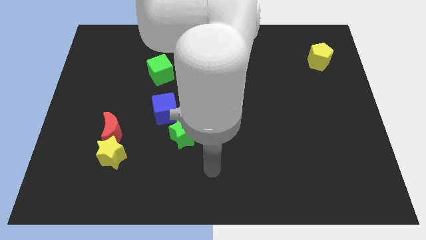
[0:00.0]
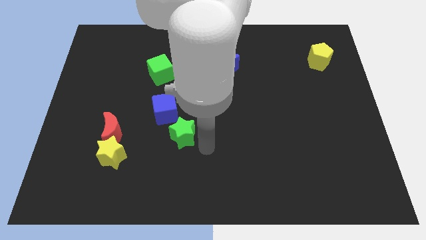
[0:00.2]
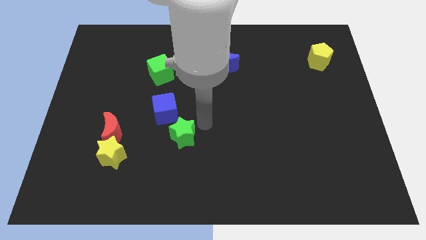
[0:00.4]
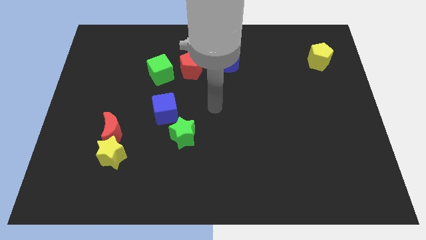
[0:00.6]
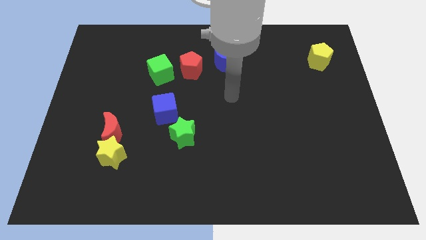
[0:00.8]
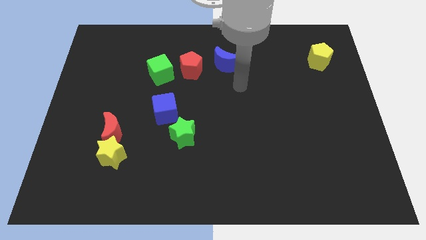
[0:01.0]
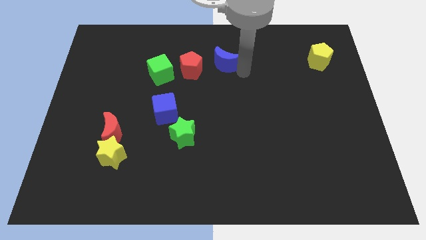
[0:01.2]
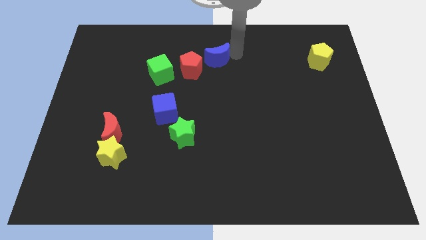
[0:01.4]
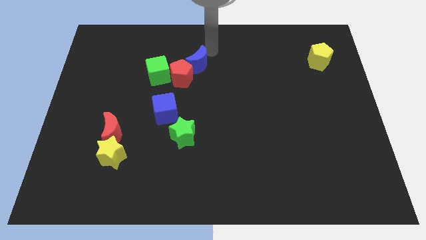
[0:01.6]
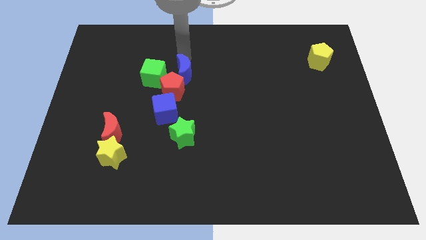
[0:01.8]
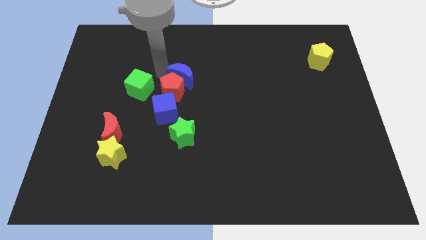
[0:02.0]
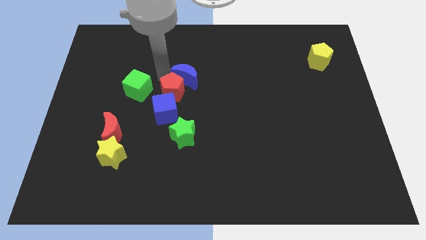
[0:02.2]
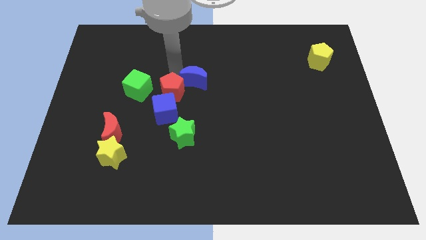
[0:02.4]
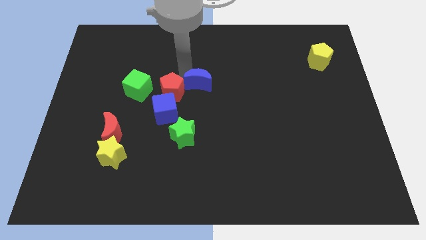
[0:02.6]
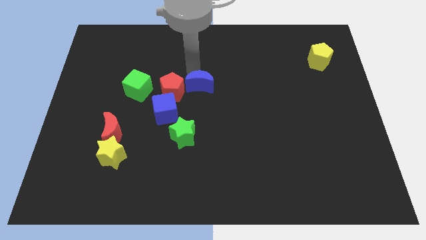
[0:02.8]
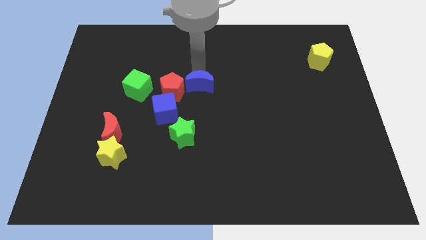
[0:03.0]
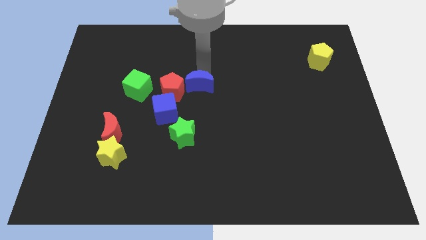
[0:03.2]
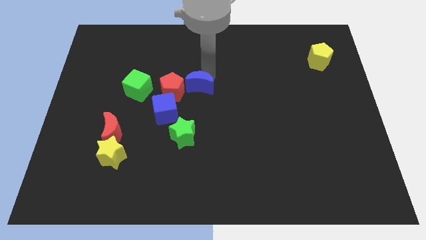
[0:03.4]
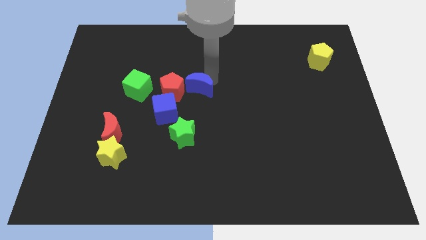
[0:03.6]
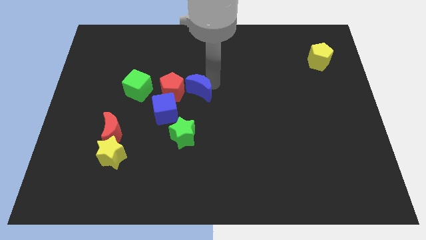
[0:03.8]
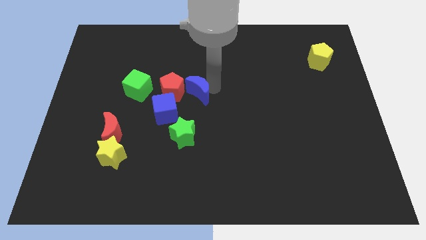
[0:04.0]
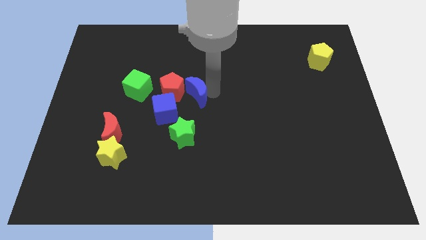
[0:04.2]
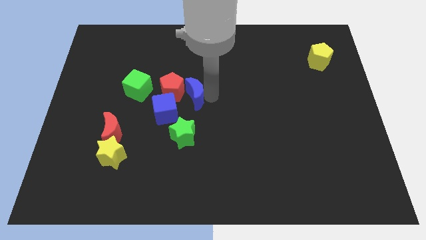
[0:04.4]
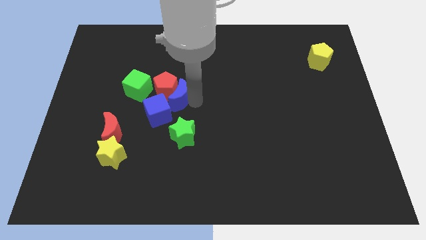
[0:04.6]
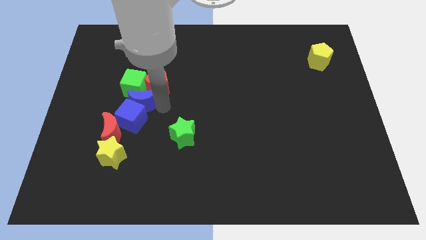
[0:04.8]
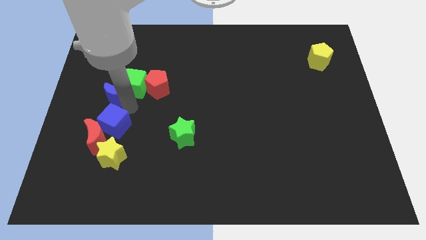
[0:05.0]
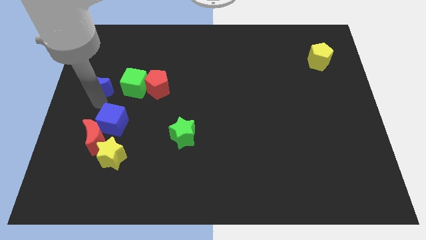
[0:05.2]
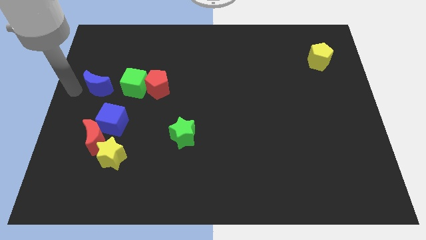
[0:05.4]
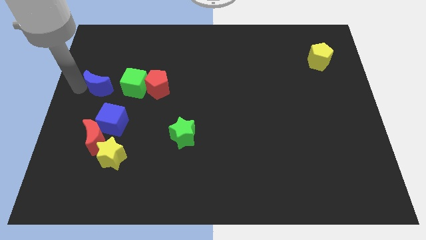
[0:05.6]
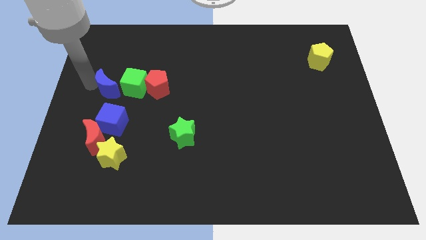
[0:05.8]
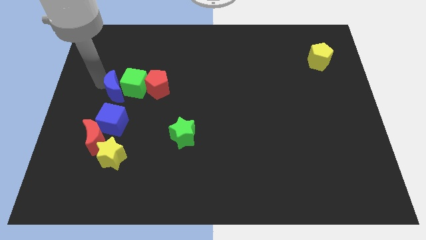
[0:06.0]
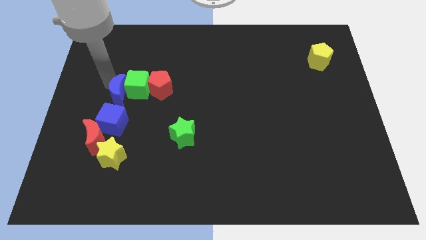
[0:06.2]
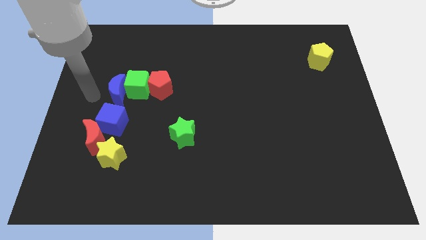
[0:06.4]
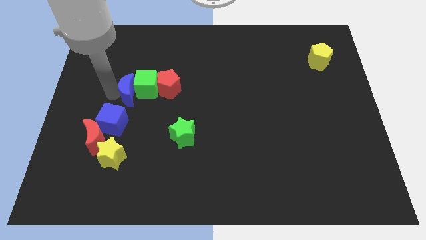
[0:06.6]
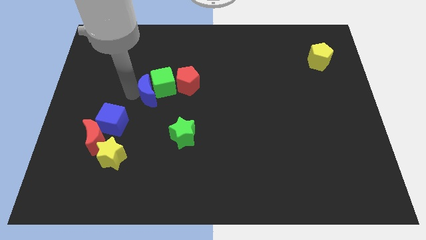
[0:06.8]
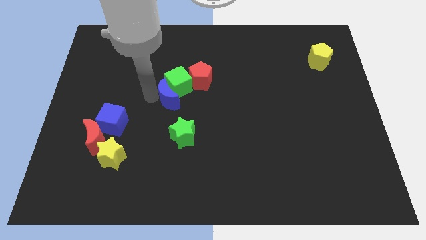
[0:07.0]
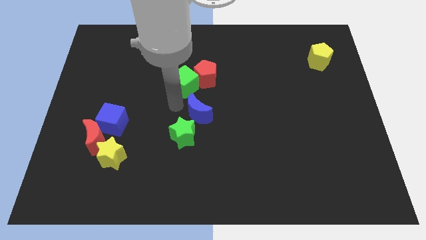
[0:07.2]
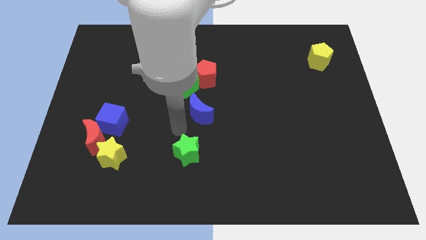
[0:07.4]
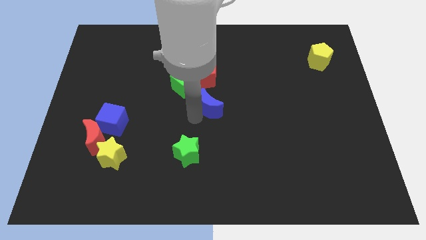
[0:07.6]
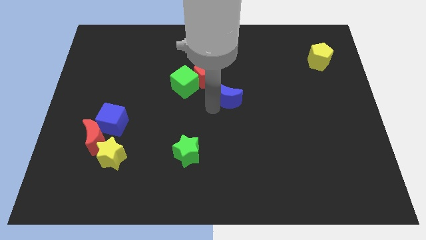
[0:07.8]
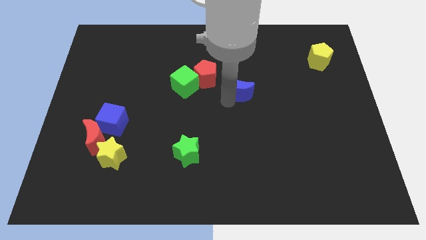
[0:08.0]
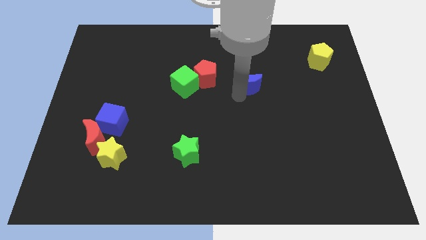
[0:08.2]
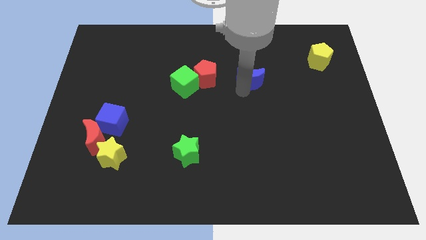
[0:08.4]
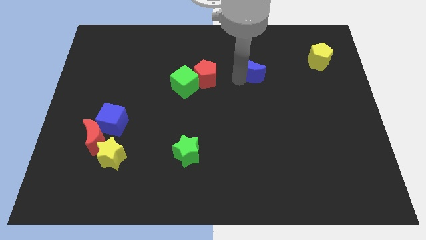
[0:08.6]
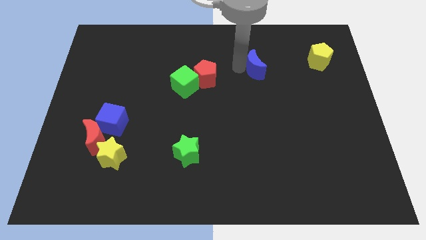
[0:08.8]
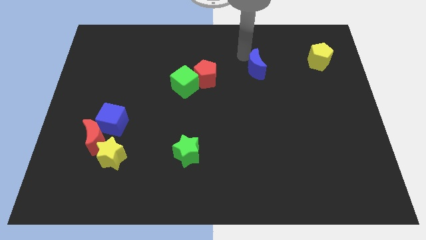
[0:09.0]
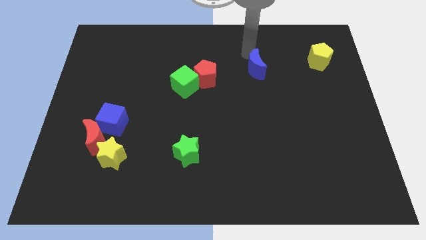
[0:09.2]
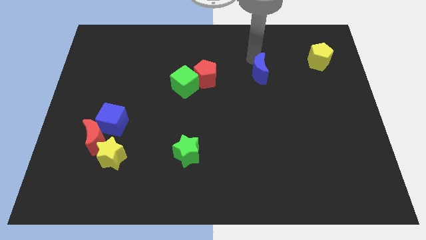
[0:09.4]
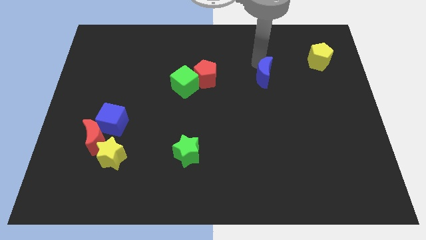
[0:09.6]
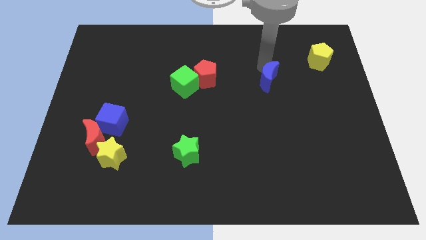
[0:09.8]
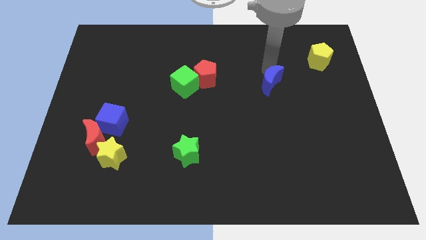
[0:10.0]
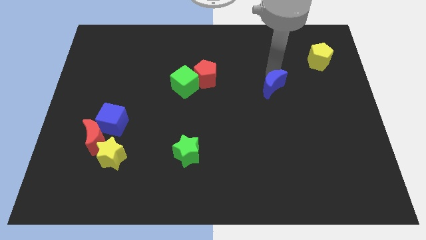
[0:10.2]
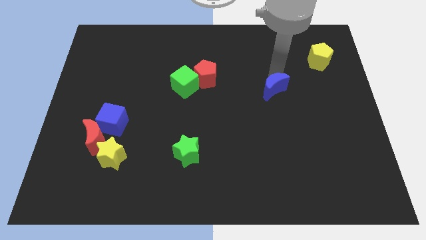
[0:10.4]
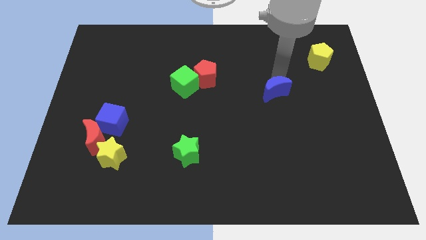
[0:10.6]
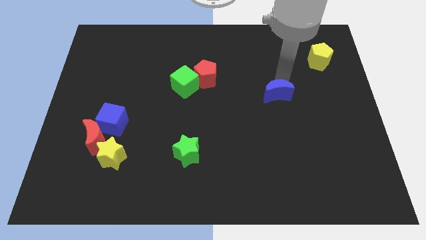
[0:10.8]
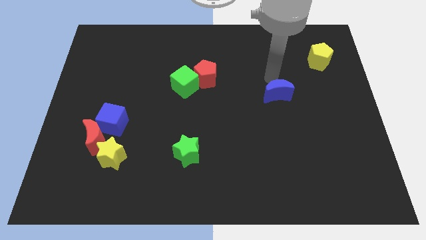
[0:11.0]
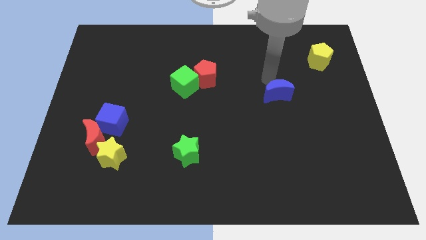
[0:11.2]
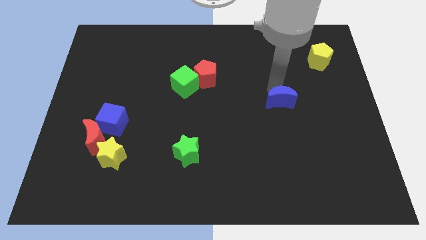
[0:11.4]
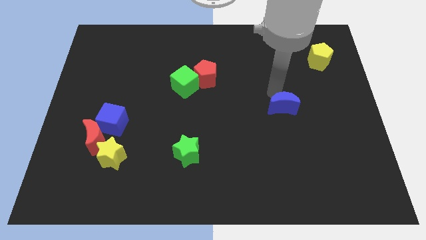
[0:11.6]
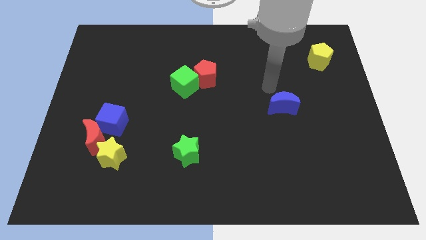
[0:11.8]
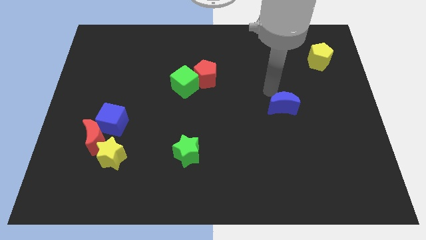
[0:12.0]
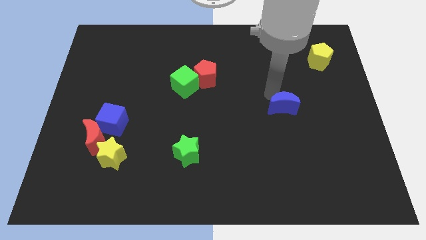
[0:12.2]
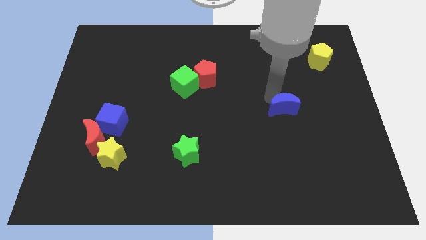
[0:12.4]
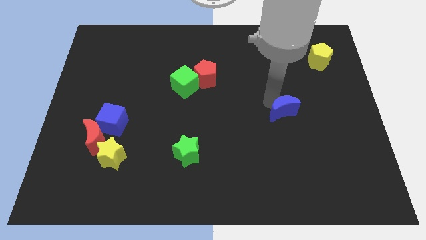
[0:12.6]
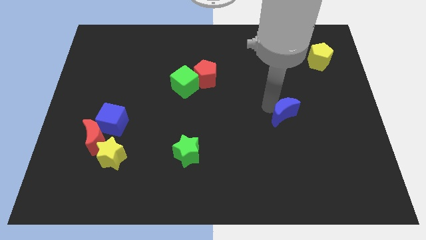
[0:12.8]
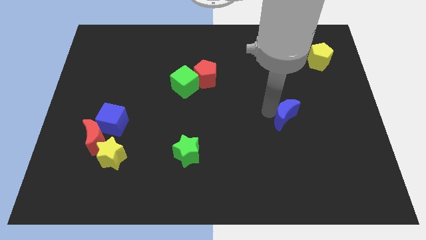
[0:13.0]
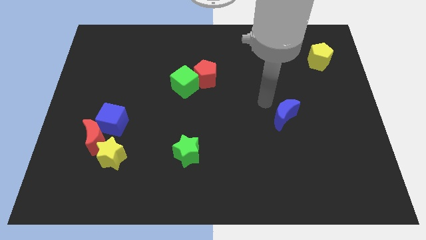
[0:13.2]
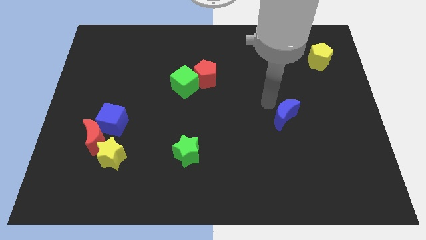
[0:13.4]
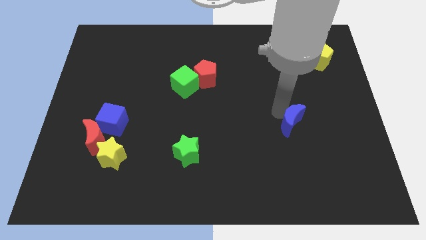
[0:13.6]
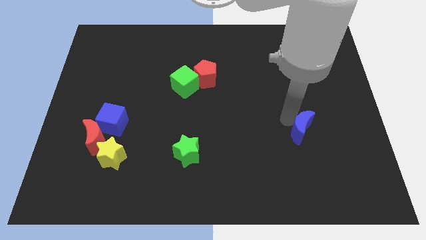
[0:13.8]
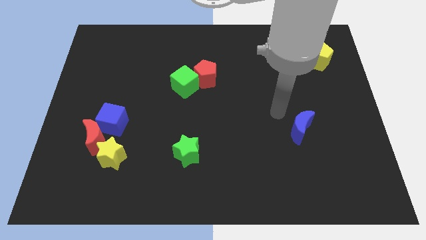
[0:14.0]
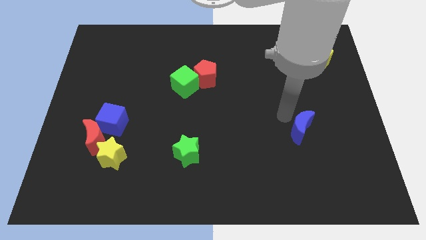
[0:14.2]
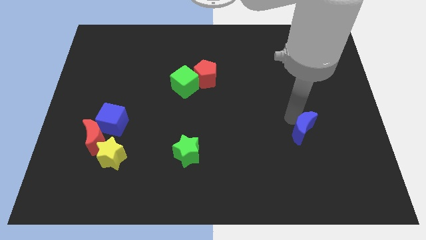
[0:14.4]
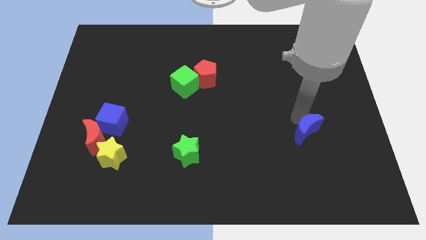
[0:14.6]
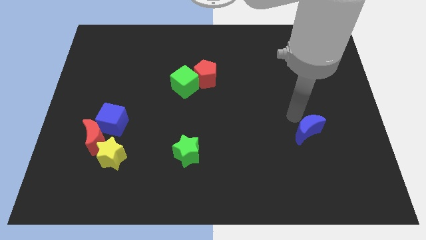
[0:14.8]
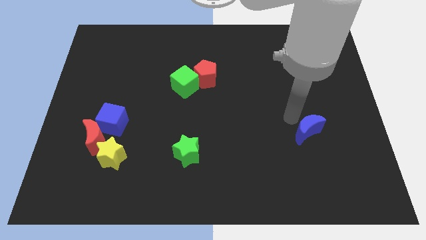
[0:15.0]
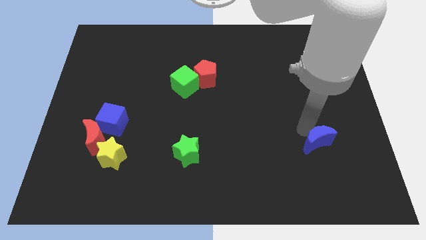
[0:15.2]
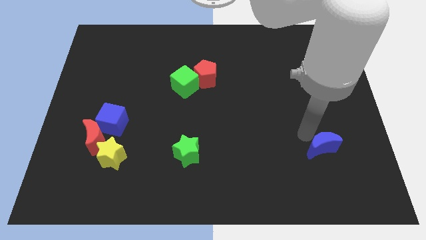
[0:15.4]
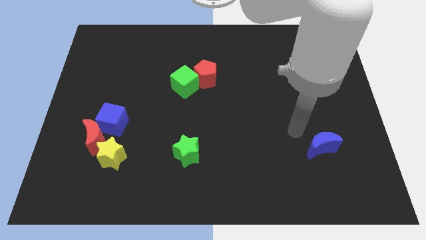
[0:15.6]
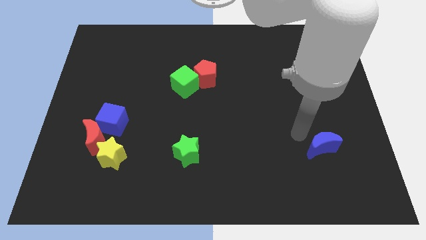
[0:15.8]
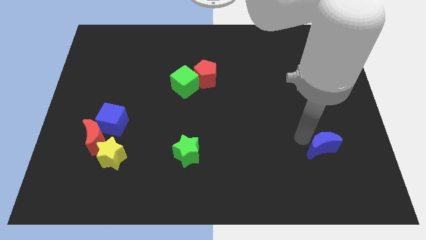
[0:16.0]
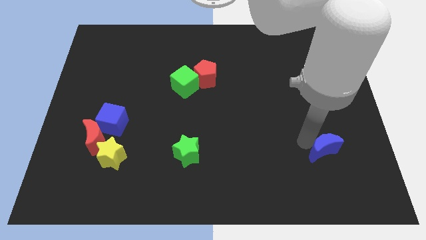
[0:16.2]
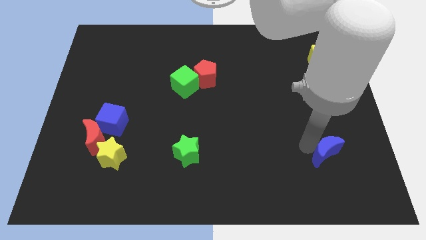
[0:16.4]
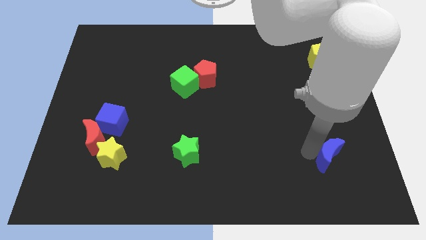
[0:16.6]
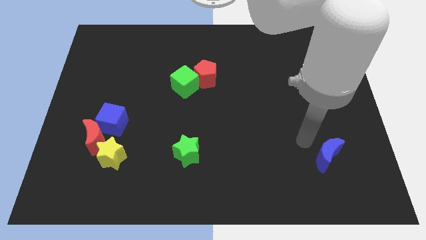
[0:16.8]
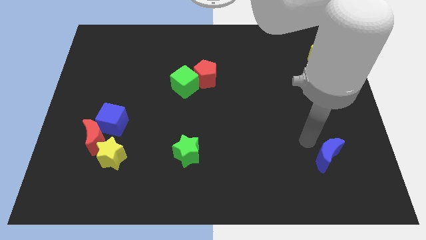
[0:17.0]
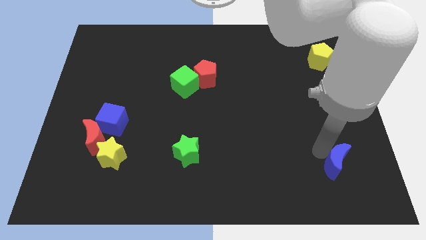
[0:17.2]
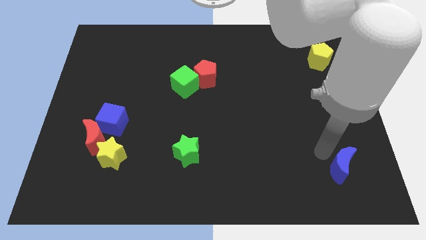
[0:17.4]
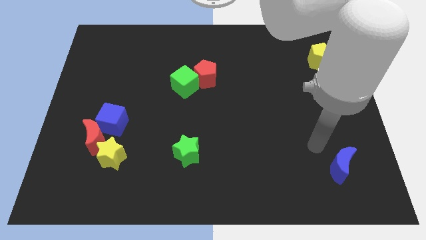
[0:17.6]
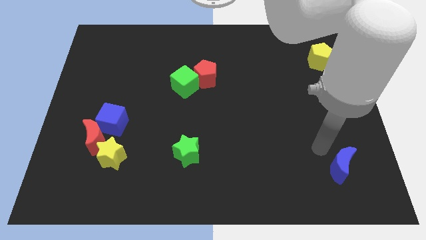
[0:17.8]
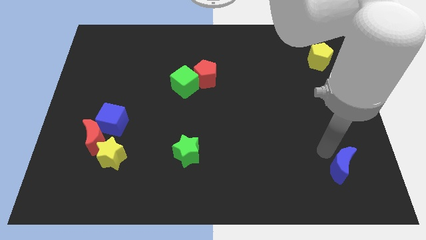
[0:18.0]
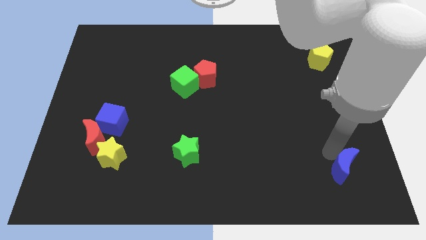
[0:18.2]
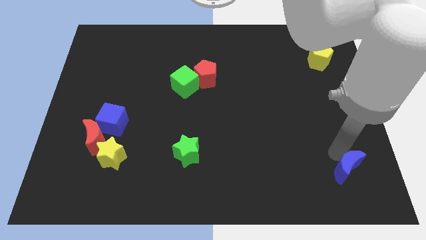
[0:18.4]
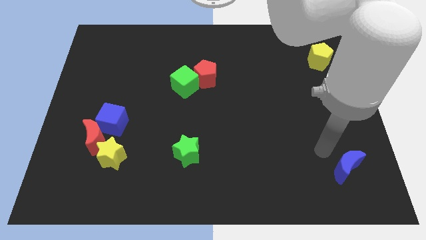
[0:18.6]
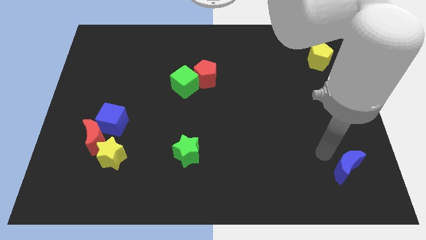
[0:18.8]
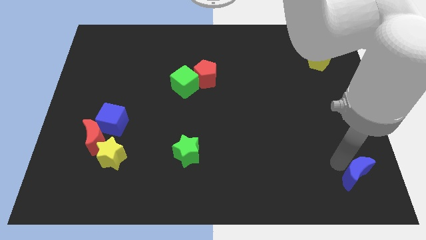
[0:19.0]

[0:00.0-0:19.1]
push the blue moon to the lower right corner
